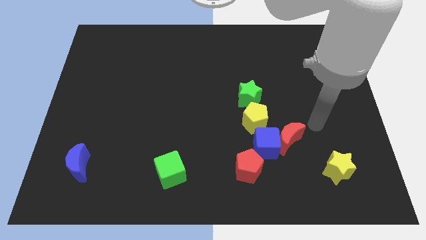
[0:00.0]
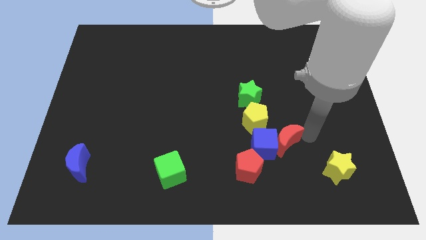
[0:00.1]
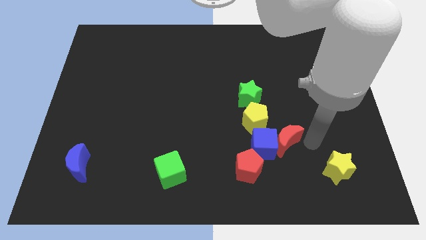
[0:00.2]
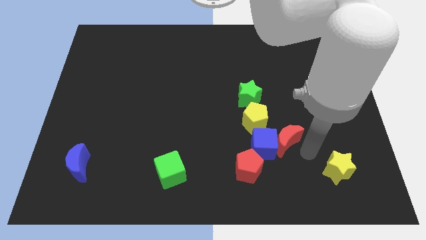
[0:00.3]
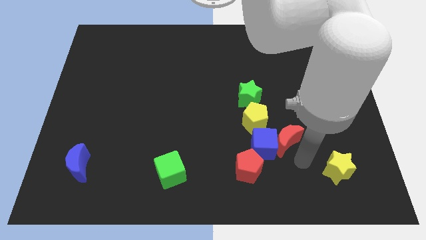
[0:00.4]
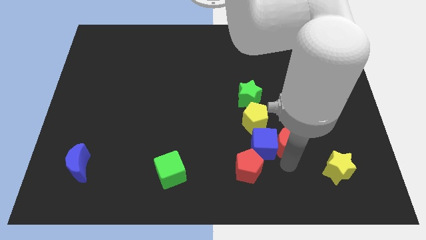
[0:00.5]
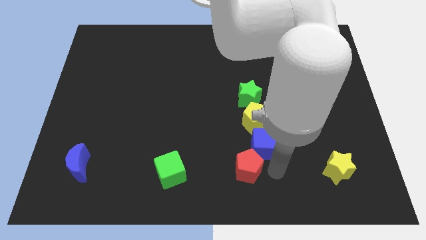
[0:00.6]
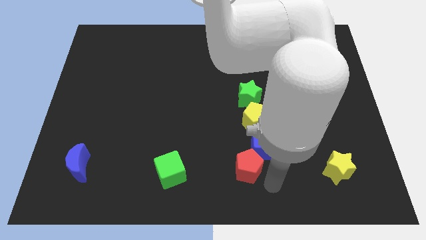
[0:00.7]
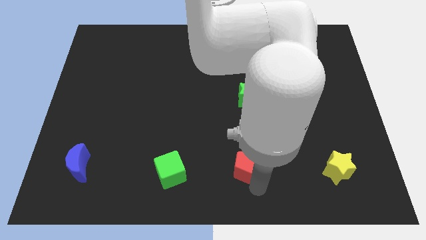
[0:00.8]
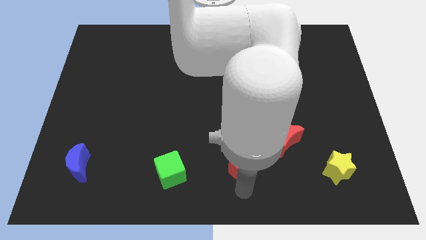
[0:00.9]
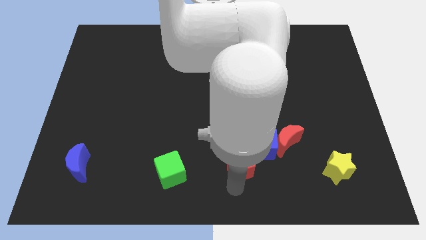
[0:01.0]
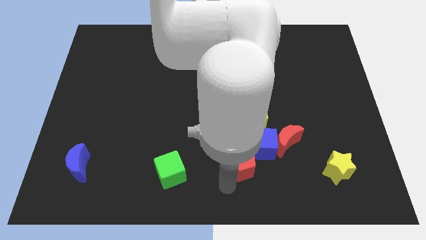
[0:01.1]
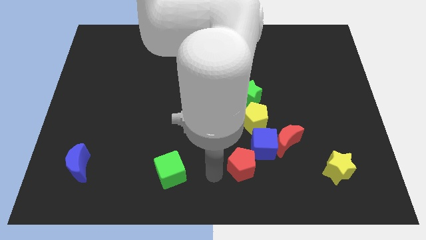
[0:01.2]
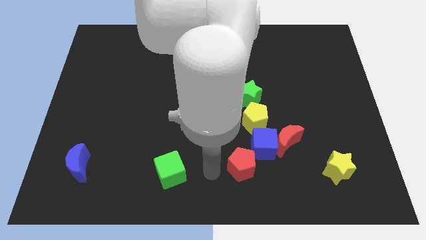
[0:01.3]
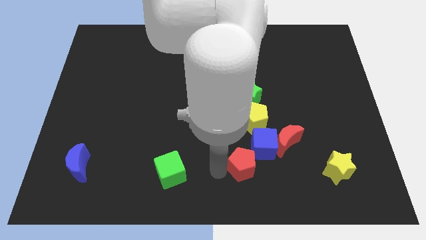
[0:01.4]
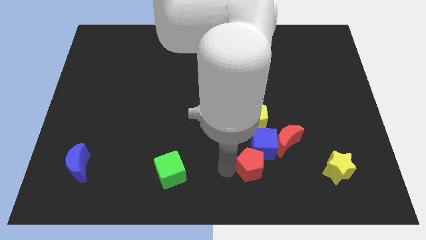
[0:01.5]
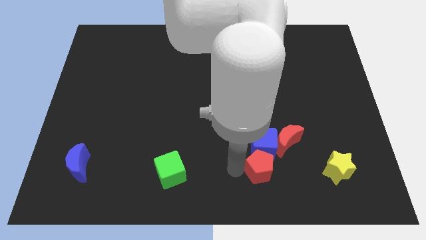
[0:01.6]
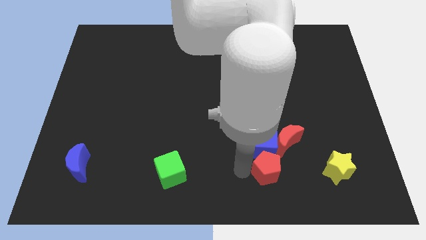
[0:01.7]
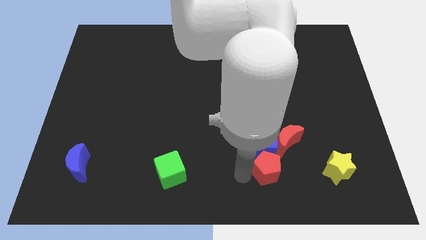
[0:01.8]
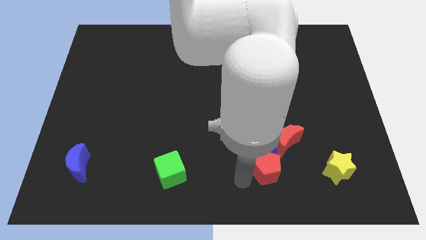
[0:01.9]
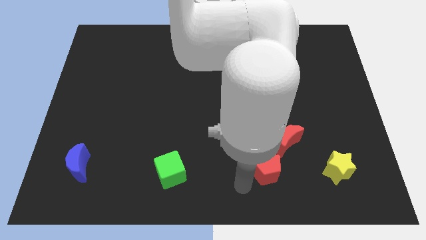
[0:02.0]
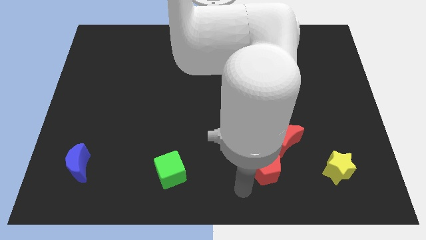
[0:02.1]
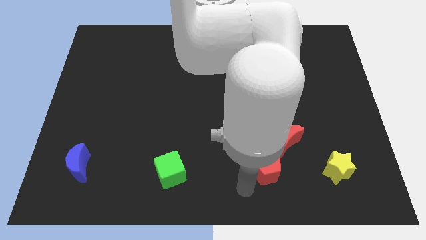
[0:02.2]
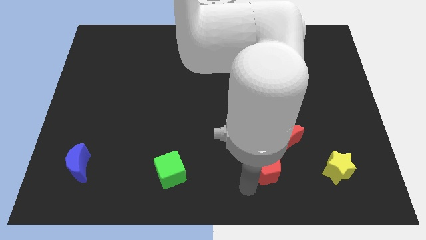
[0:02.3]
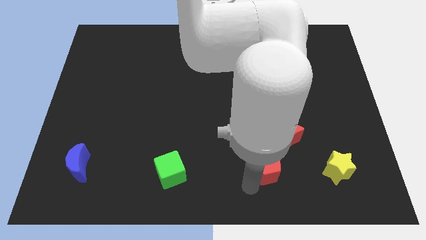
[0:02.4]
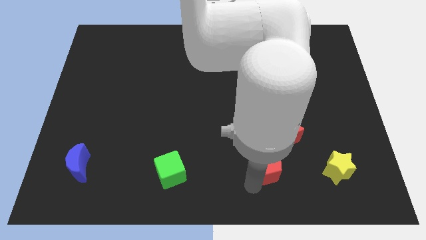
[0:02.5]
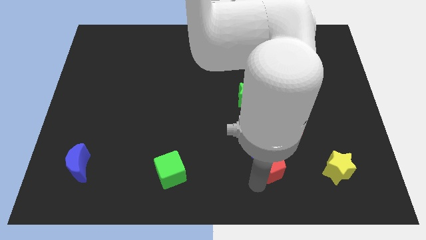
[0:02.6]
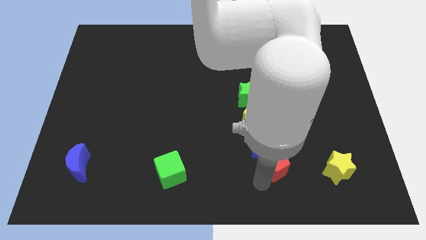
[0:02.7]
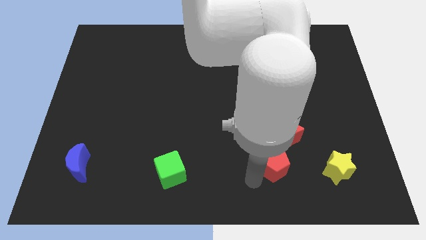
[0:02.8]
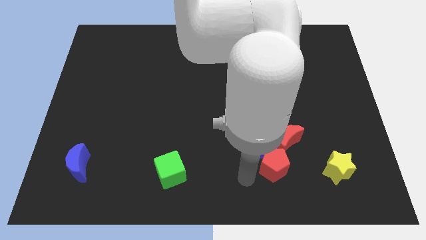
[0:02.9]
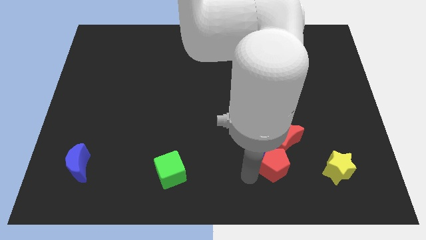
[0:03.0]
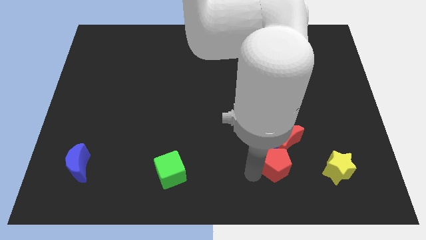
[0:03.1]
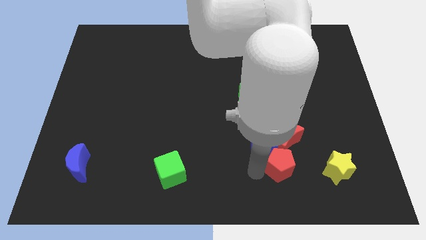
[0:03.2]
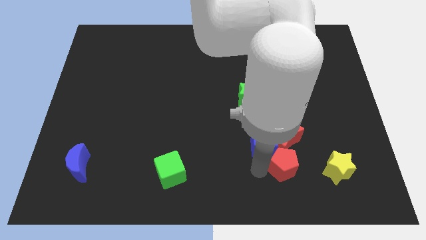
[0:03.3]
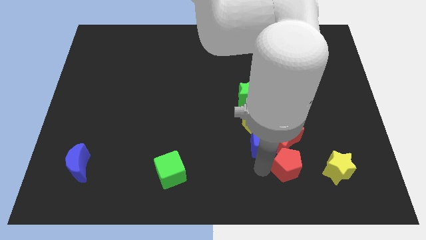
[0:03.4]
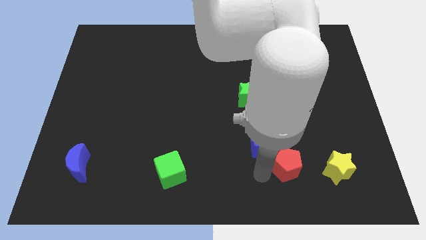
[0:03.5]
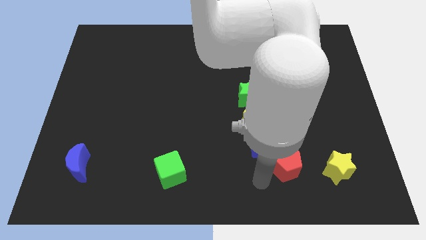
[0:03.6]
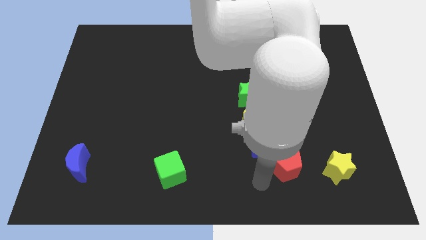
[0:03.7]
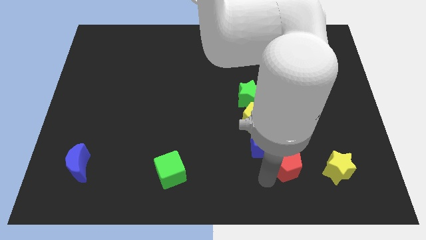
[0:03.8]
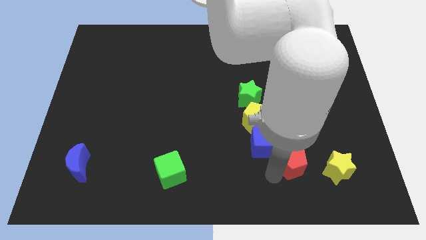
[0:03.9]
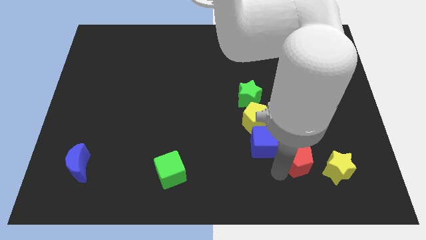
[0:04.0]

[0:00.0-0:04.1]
push the red pentagon somewhat diagonally upwards and to the right

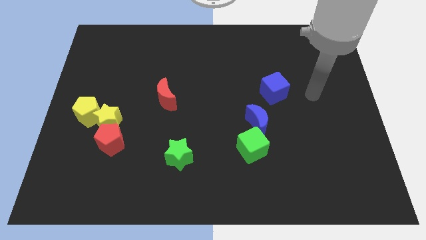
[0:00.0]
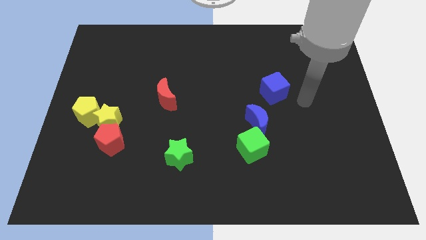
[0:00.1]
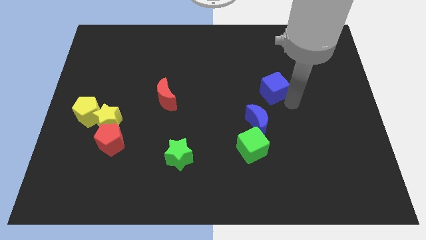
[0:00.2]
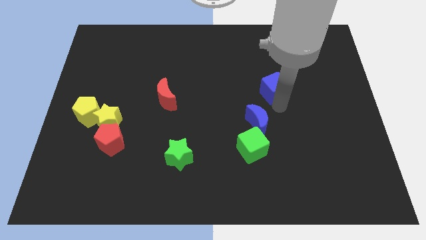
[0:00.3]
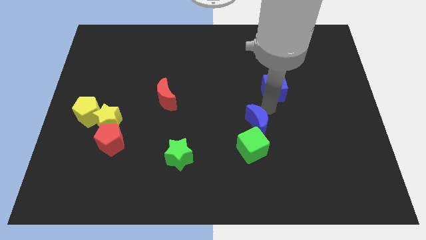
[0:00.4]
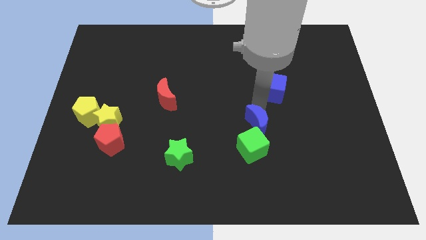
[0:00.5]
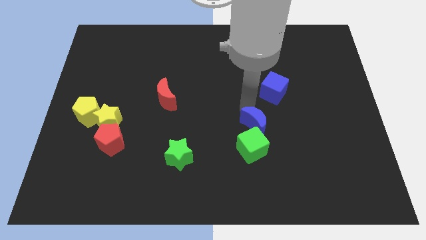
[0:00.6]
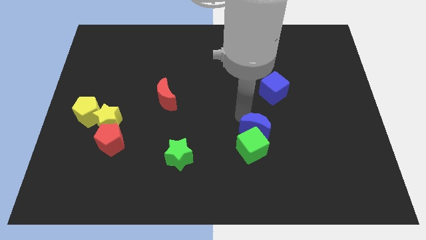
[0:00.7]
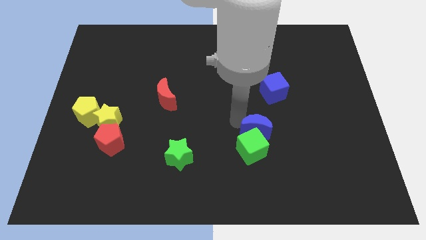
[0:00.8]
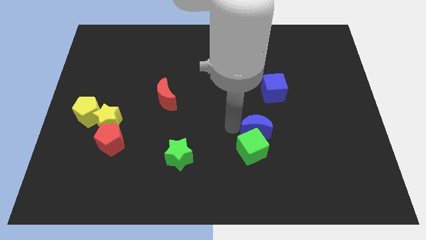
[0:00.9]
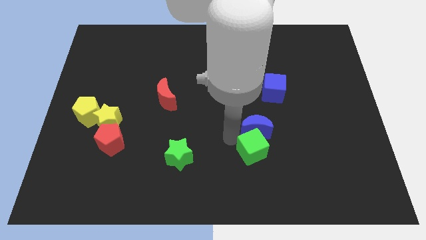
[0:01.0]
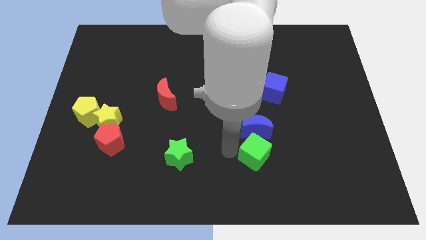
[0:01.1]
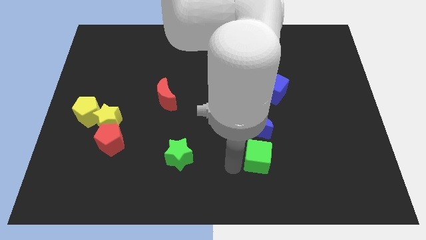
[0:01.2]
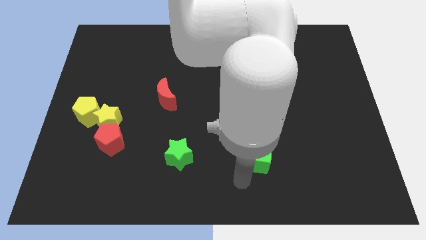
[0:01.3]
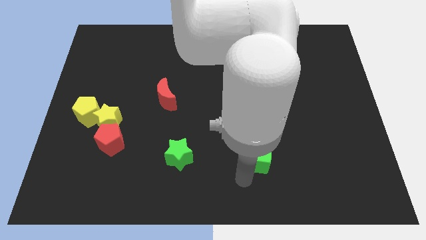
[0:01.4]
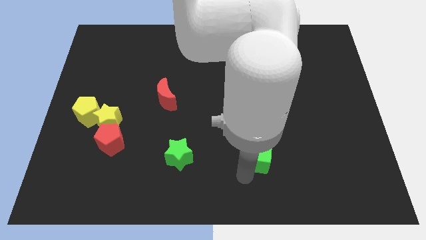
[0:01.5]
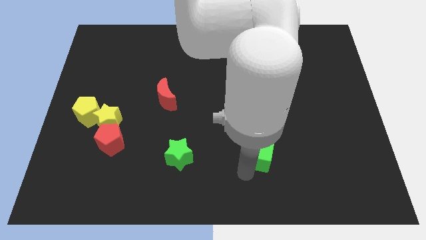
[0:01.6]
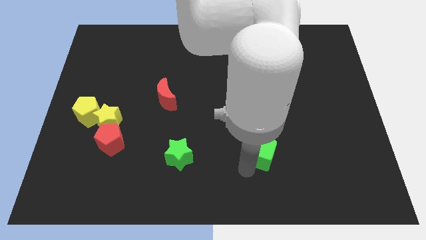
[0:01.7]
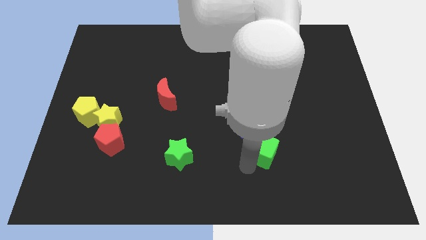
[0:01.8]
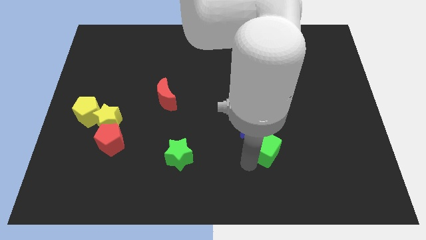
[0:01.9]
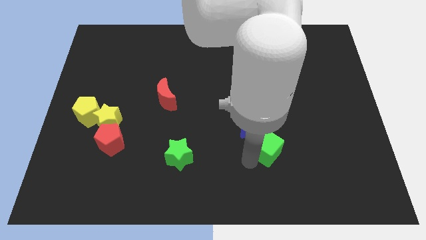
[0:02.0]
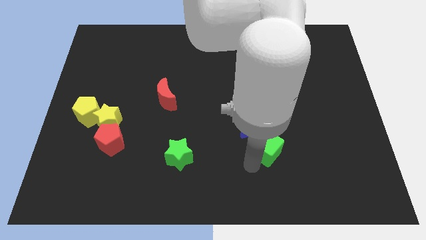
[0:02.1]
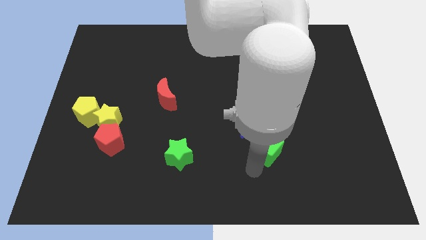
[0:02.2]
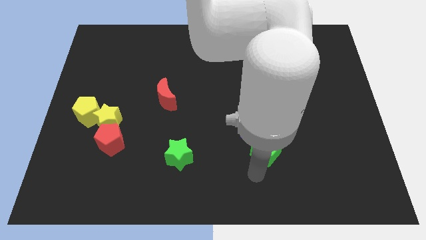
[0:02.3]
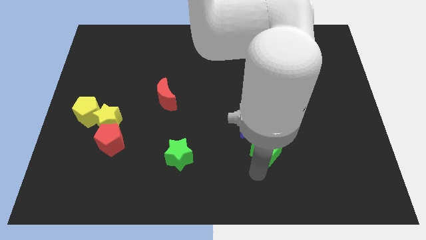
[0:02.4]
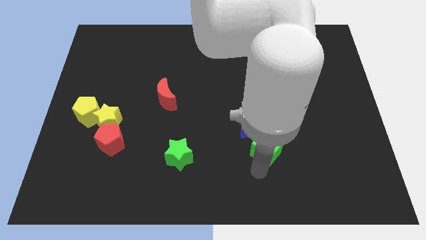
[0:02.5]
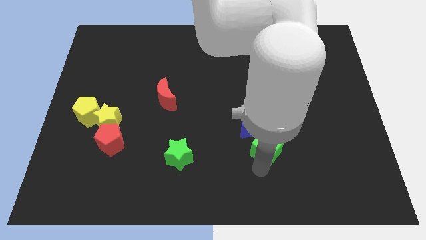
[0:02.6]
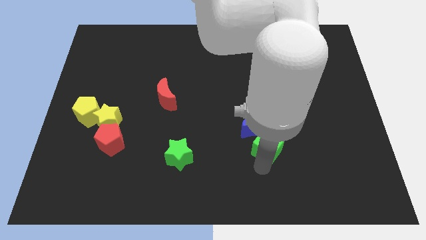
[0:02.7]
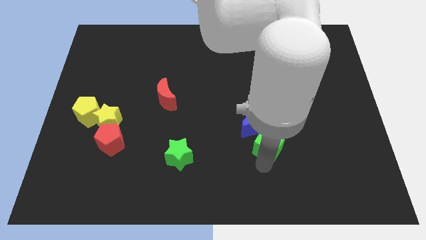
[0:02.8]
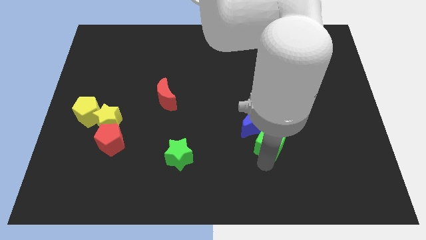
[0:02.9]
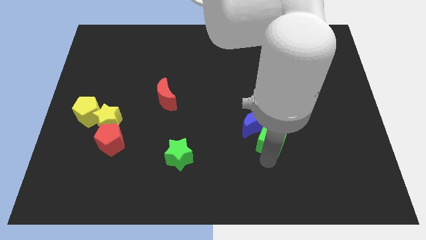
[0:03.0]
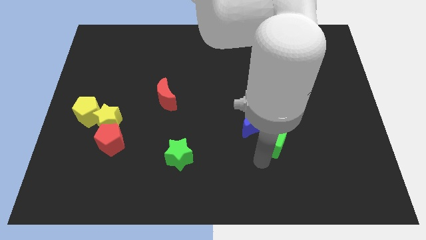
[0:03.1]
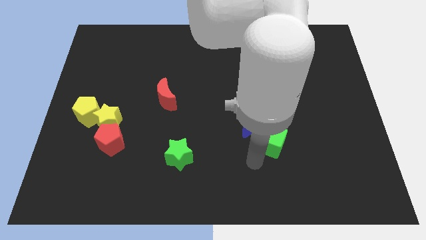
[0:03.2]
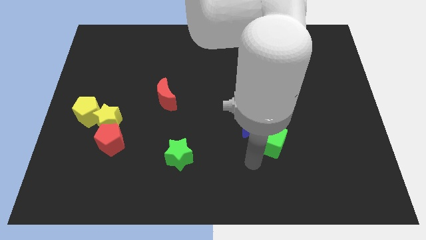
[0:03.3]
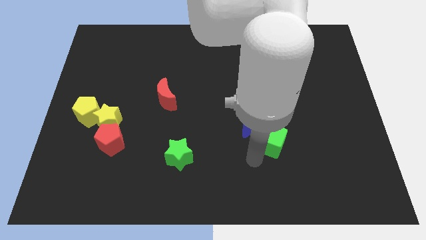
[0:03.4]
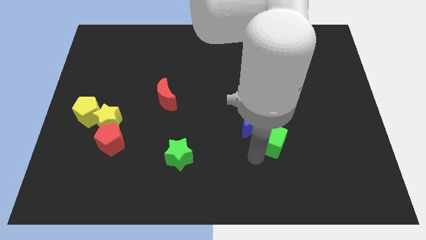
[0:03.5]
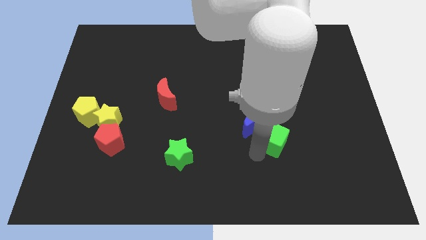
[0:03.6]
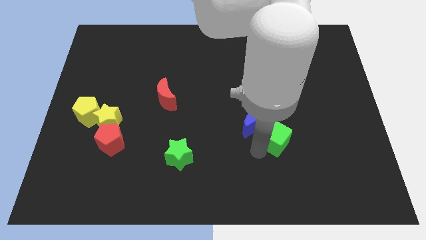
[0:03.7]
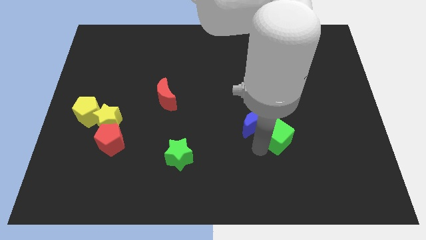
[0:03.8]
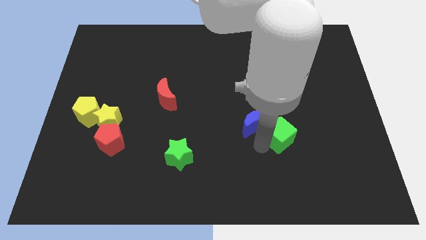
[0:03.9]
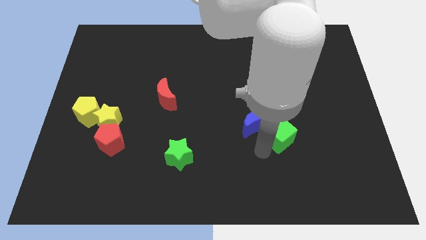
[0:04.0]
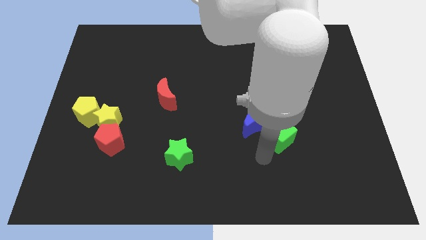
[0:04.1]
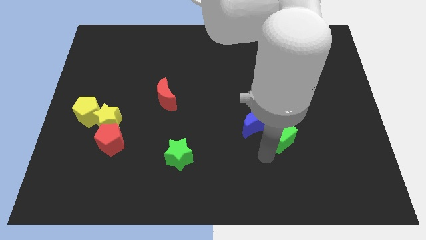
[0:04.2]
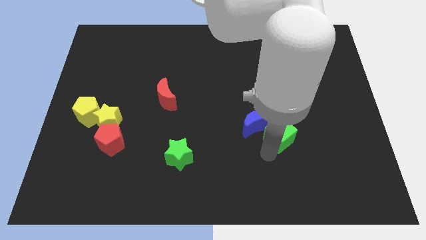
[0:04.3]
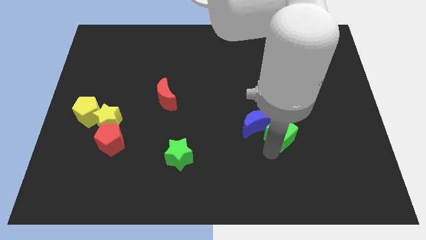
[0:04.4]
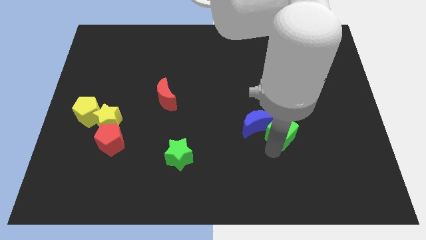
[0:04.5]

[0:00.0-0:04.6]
slightly move the green cube upwards and then right
